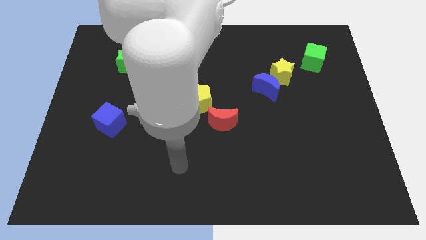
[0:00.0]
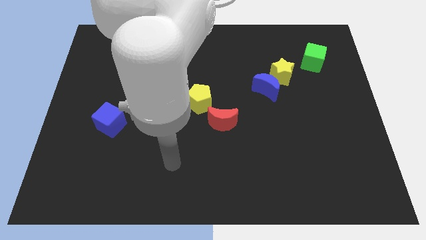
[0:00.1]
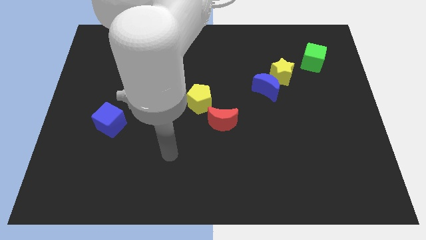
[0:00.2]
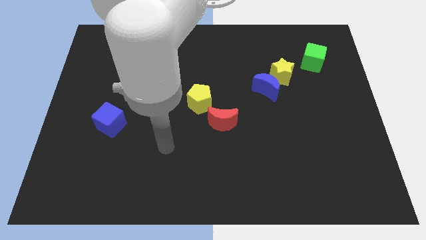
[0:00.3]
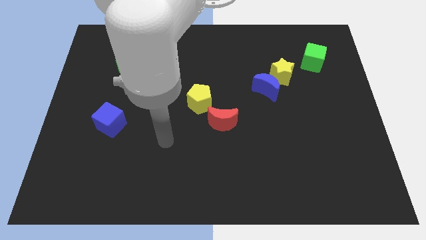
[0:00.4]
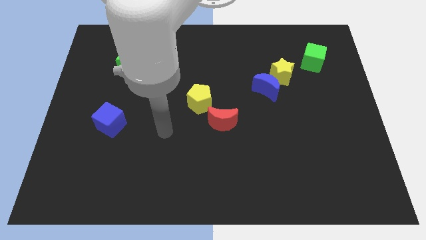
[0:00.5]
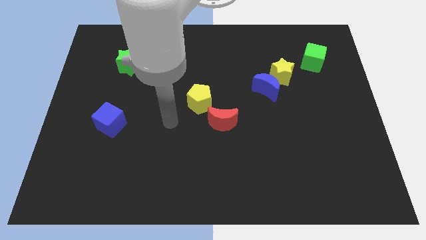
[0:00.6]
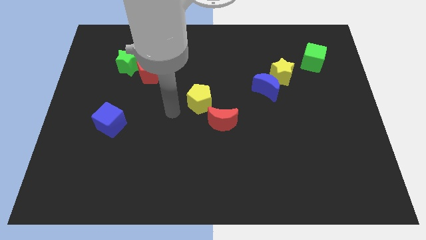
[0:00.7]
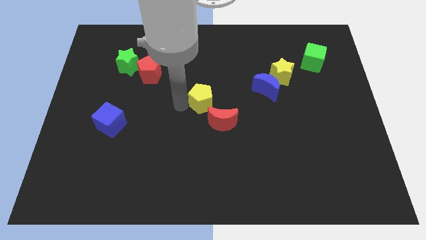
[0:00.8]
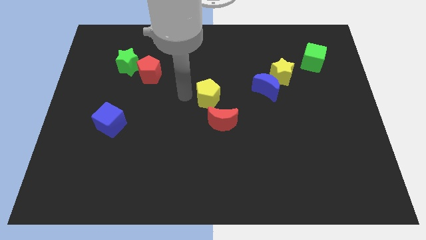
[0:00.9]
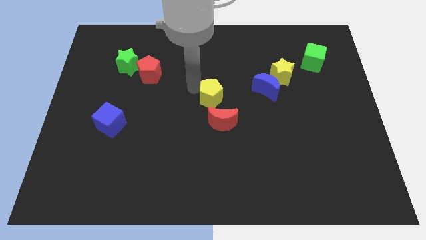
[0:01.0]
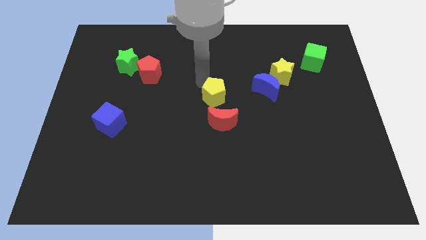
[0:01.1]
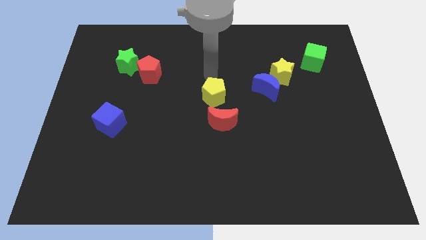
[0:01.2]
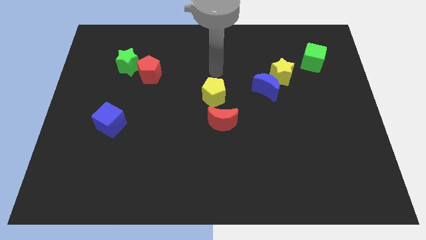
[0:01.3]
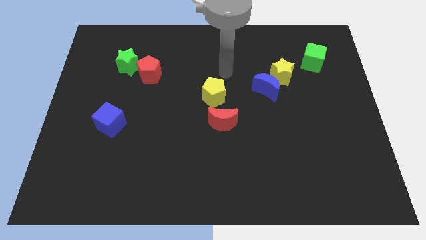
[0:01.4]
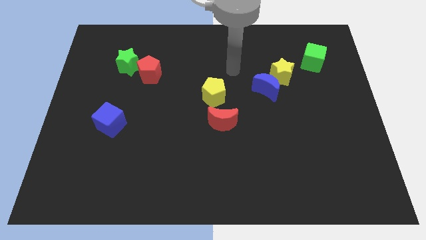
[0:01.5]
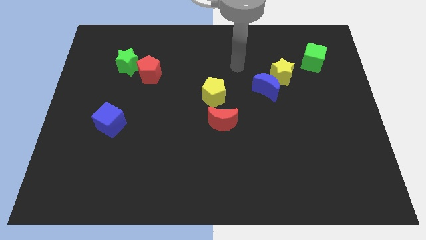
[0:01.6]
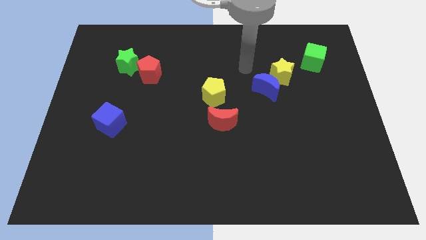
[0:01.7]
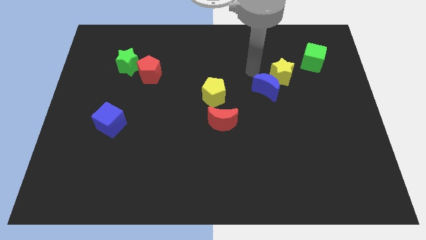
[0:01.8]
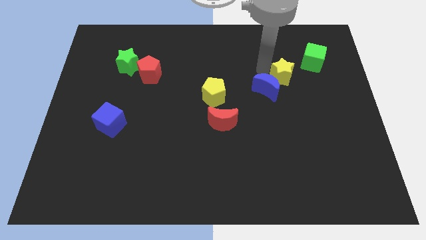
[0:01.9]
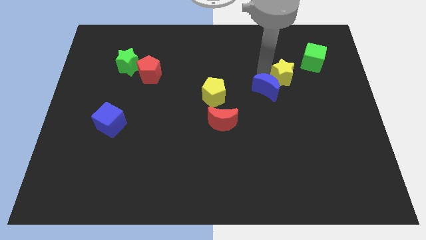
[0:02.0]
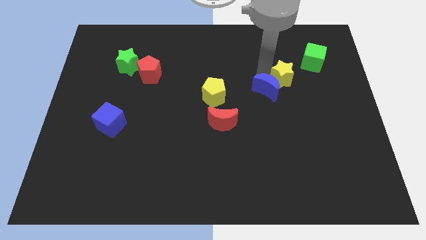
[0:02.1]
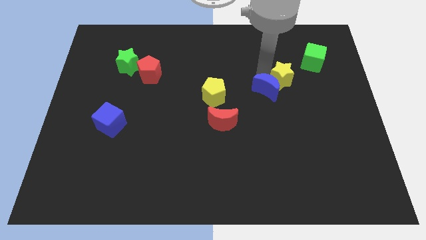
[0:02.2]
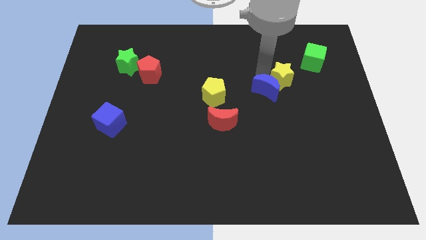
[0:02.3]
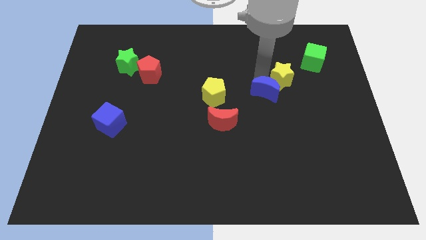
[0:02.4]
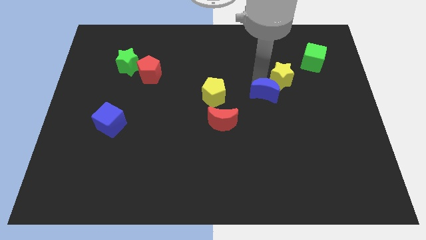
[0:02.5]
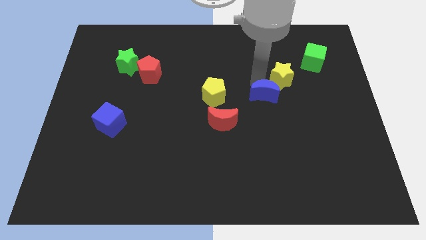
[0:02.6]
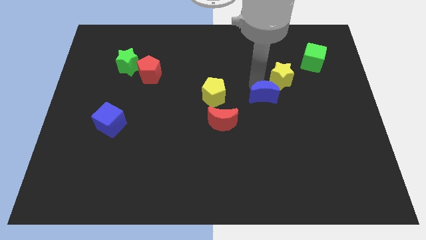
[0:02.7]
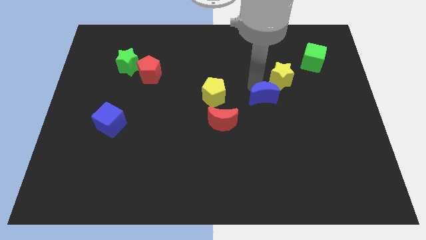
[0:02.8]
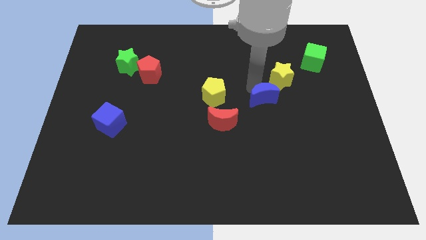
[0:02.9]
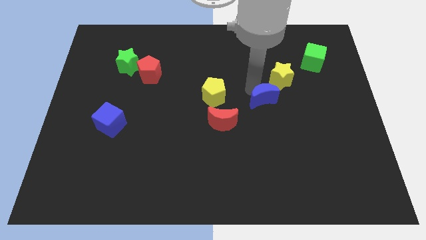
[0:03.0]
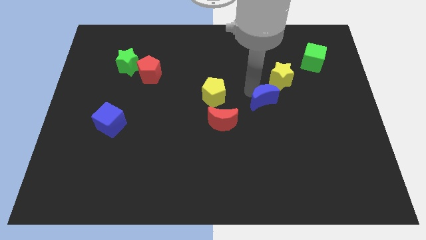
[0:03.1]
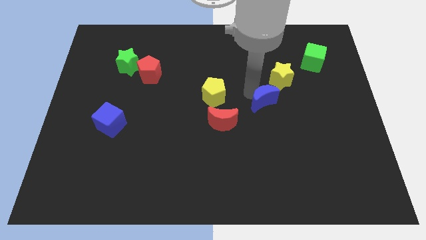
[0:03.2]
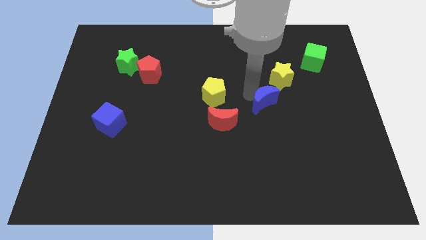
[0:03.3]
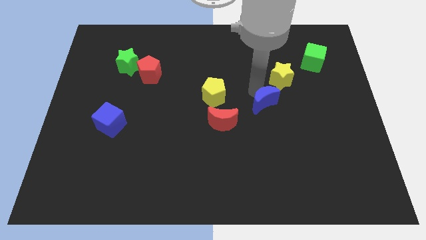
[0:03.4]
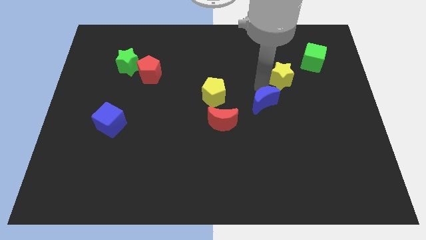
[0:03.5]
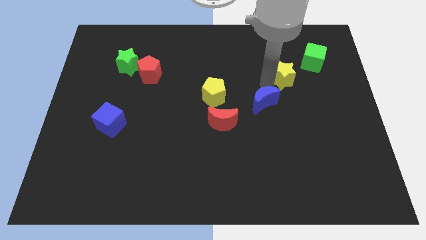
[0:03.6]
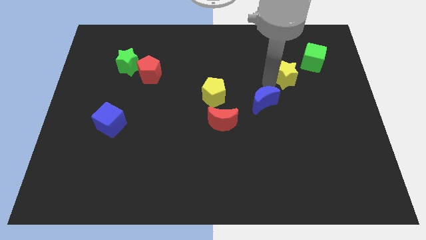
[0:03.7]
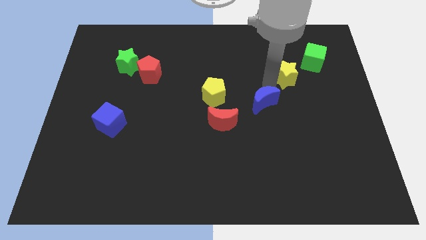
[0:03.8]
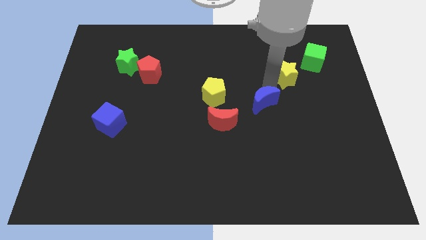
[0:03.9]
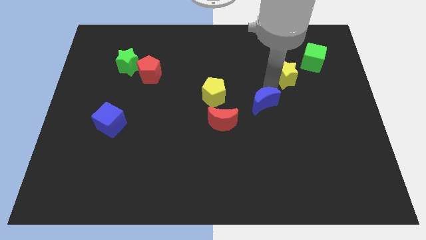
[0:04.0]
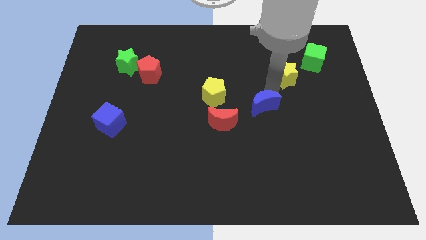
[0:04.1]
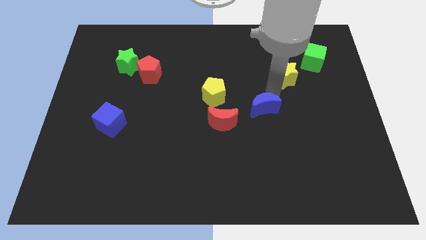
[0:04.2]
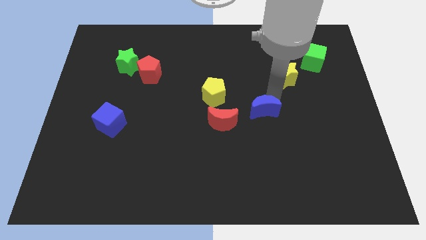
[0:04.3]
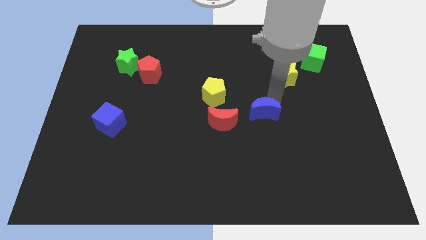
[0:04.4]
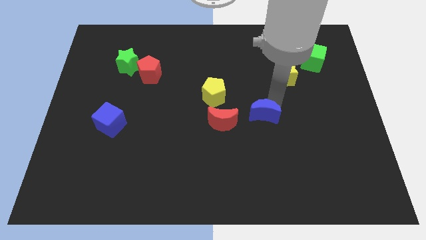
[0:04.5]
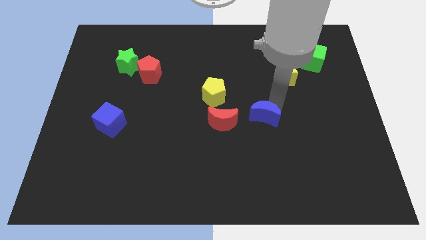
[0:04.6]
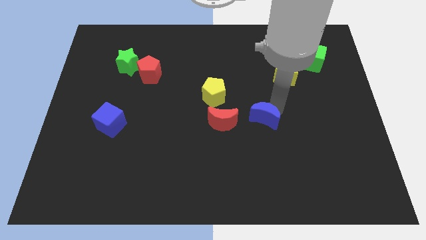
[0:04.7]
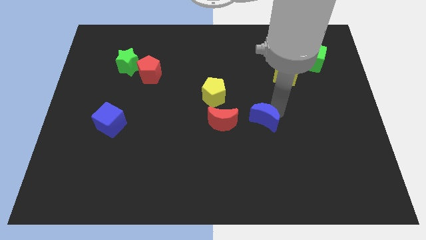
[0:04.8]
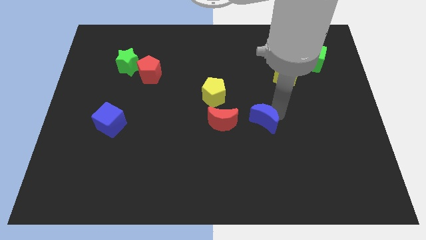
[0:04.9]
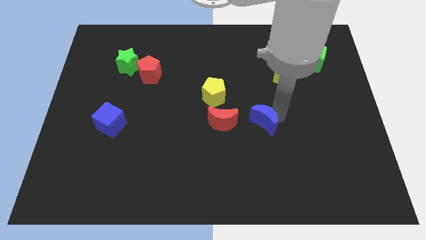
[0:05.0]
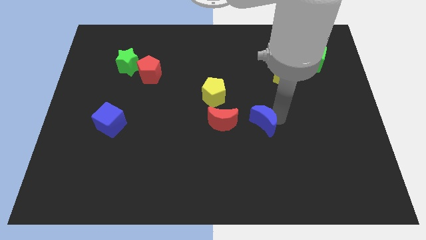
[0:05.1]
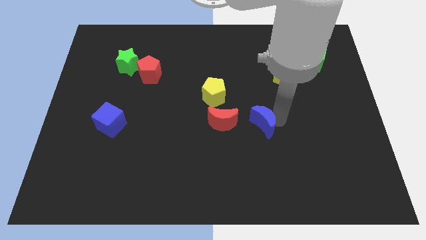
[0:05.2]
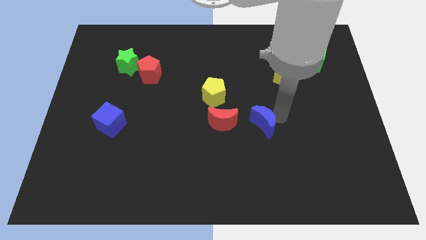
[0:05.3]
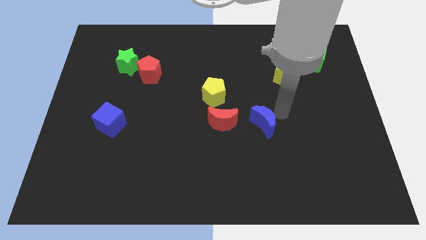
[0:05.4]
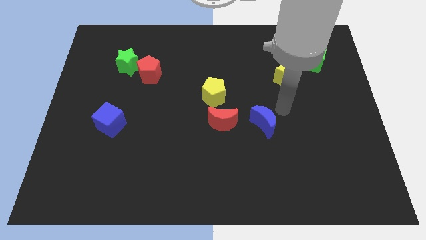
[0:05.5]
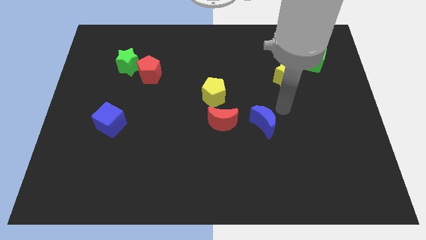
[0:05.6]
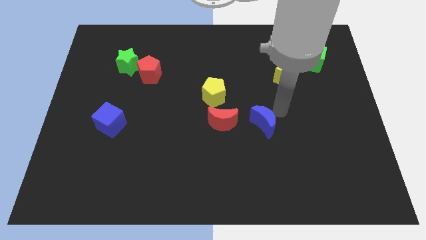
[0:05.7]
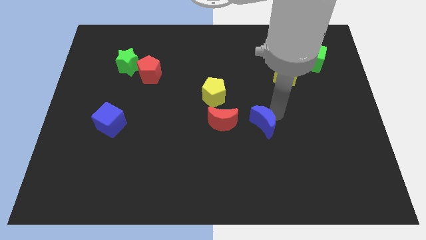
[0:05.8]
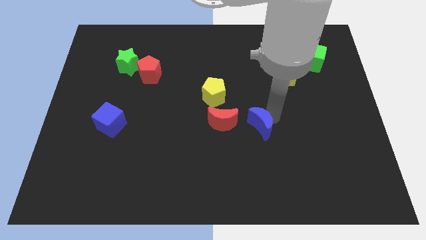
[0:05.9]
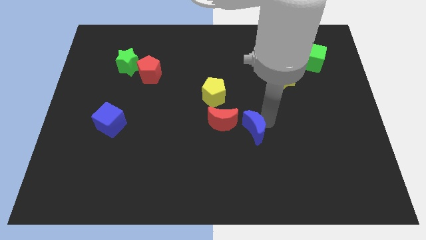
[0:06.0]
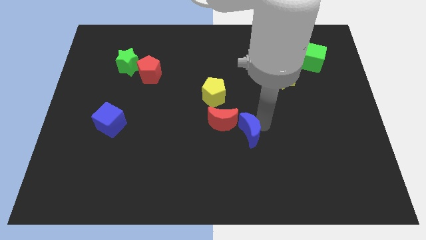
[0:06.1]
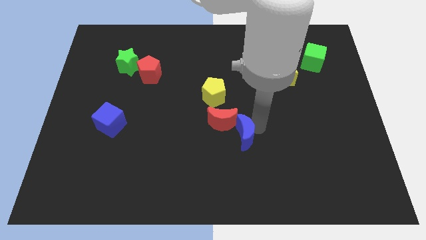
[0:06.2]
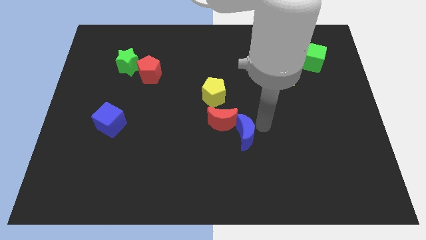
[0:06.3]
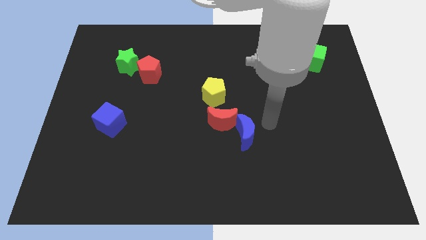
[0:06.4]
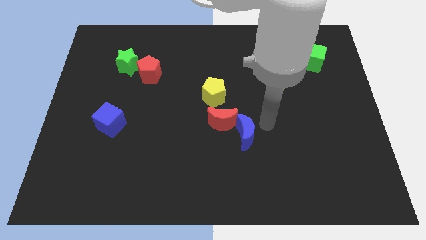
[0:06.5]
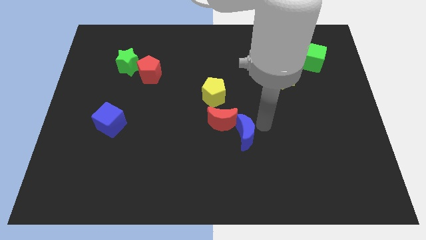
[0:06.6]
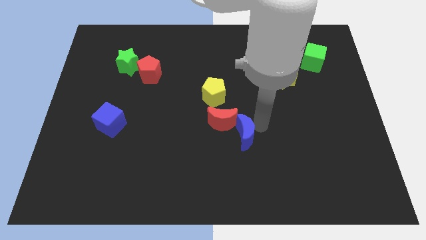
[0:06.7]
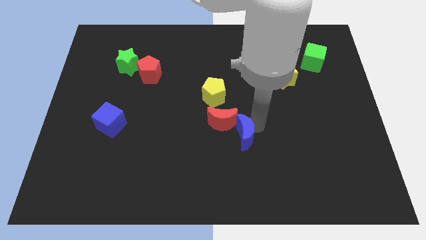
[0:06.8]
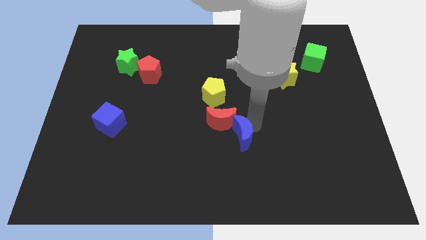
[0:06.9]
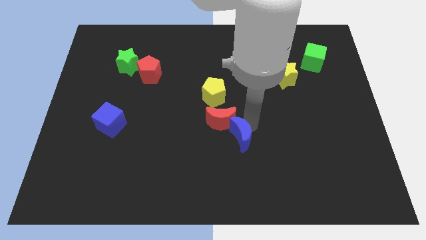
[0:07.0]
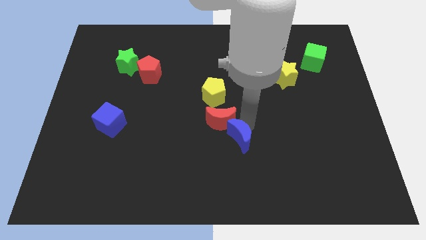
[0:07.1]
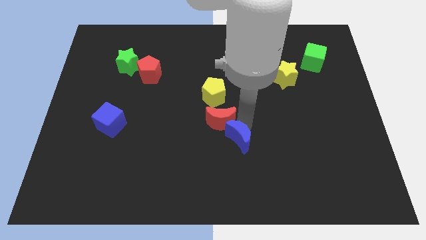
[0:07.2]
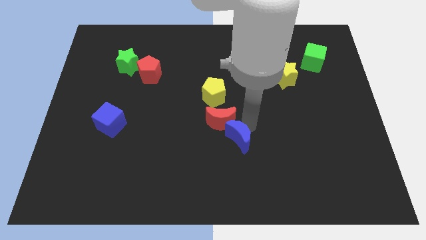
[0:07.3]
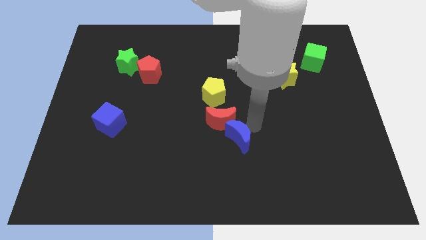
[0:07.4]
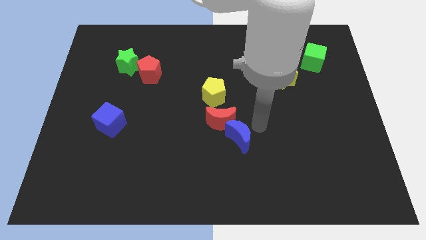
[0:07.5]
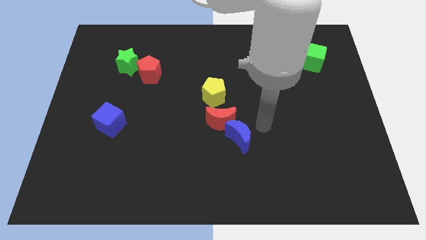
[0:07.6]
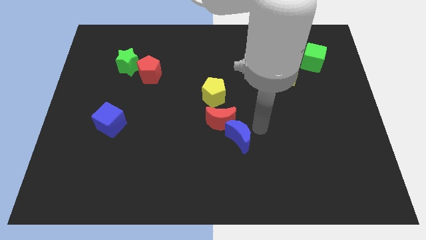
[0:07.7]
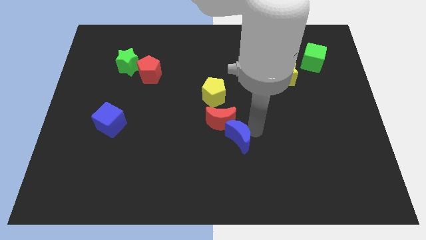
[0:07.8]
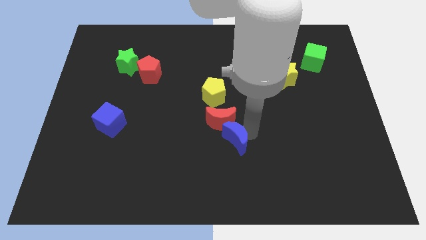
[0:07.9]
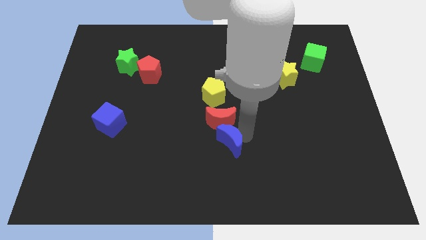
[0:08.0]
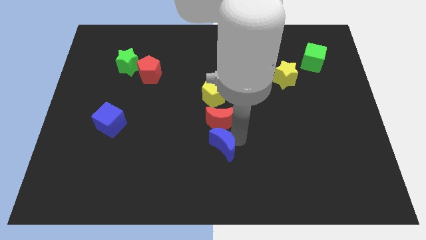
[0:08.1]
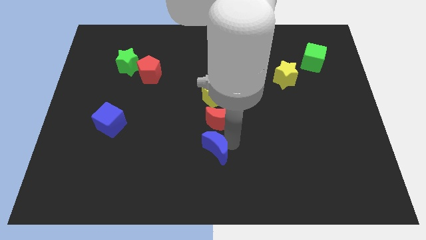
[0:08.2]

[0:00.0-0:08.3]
slide the blue moon downwards and to the left diagonally
